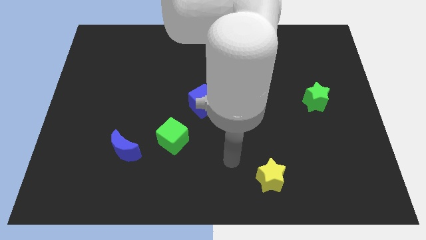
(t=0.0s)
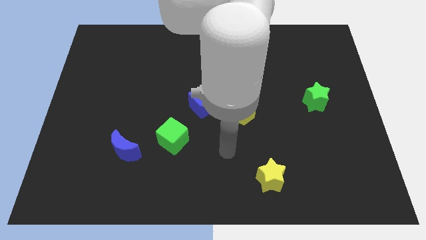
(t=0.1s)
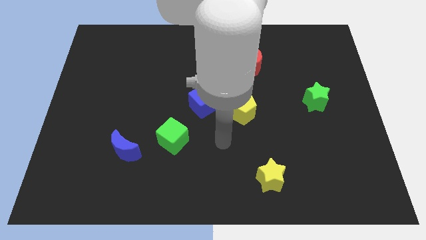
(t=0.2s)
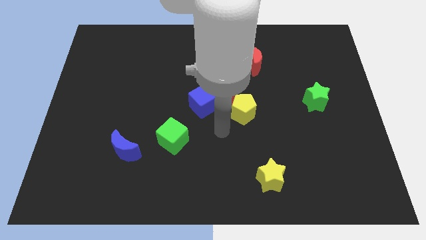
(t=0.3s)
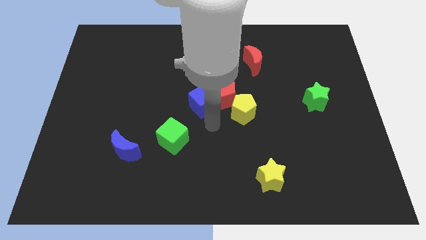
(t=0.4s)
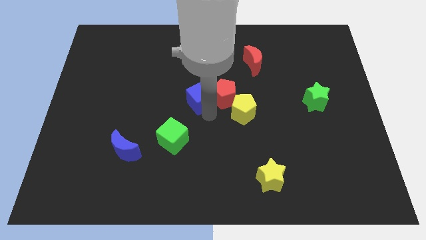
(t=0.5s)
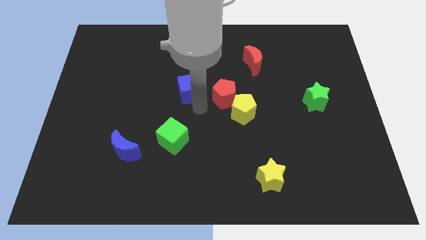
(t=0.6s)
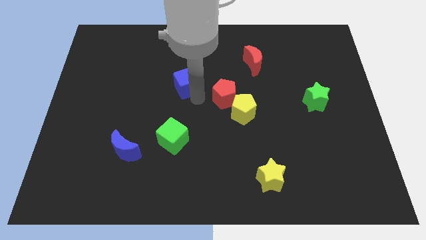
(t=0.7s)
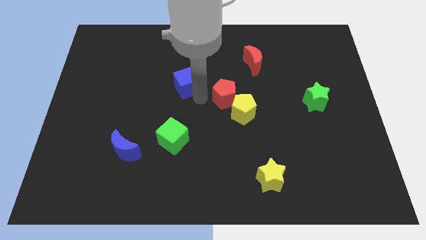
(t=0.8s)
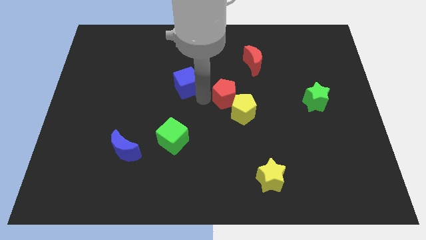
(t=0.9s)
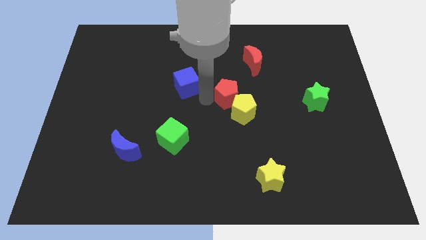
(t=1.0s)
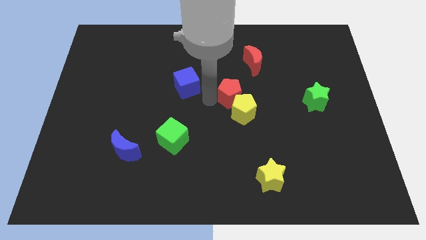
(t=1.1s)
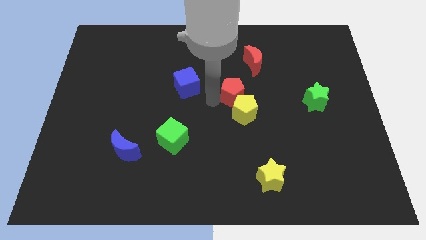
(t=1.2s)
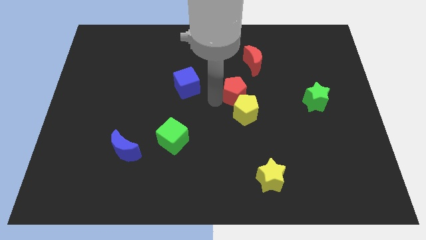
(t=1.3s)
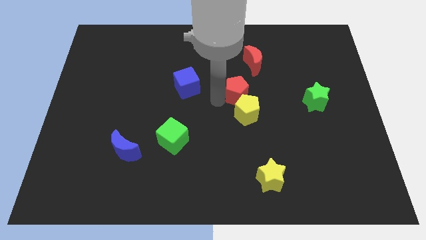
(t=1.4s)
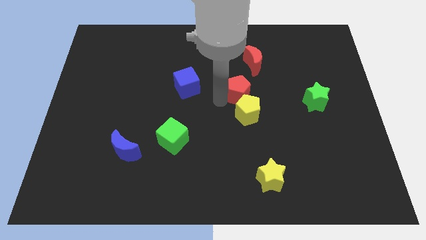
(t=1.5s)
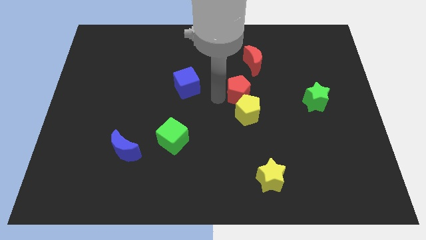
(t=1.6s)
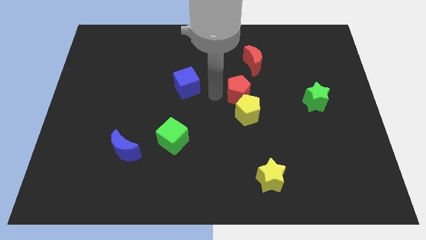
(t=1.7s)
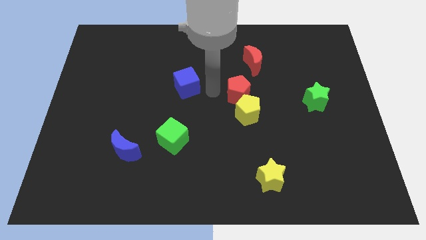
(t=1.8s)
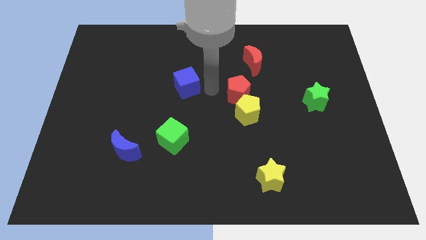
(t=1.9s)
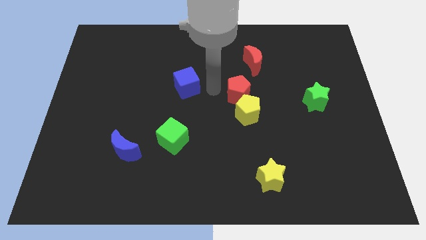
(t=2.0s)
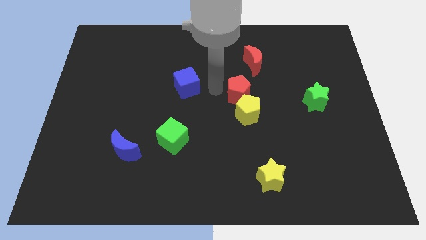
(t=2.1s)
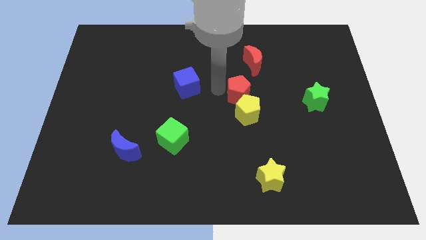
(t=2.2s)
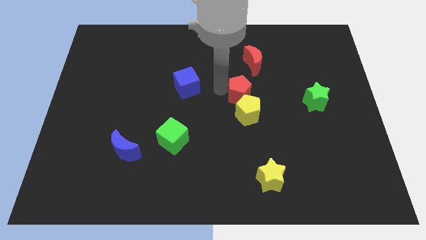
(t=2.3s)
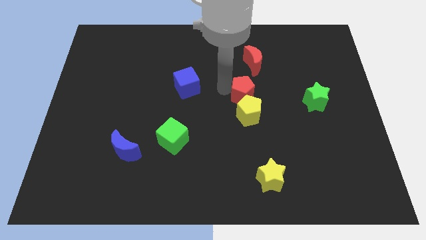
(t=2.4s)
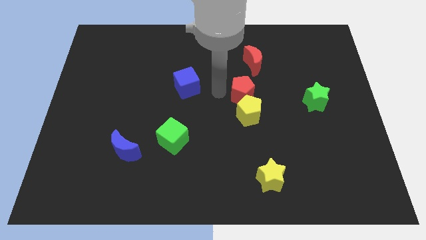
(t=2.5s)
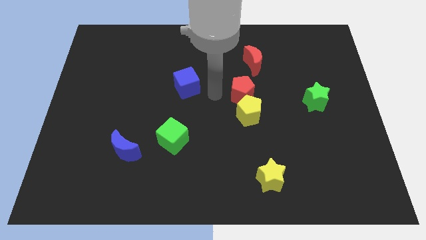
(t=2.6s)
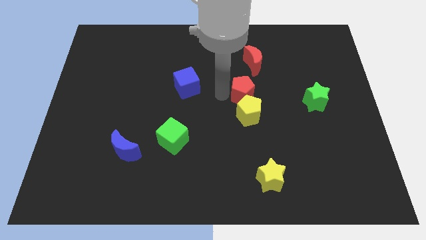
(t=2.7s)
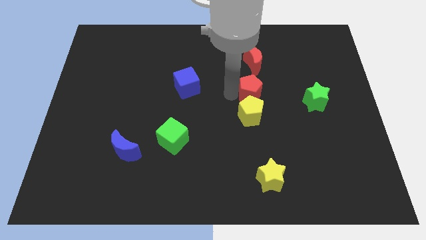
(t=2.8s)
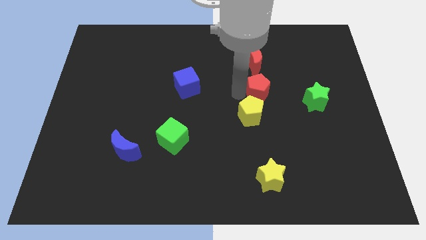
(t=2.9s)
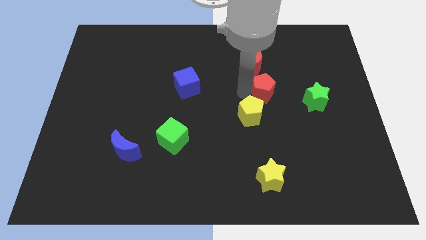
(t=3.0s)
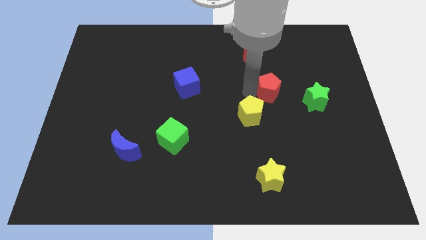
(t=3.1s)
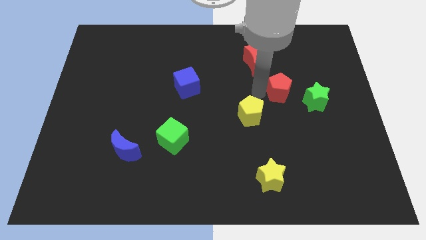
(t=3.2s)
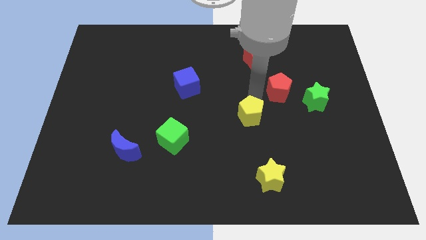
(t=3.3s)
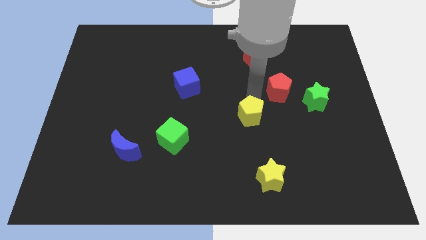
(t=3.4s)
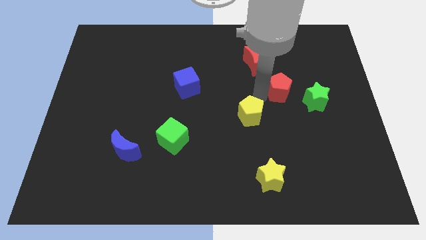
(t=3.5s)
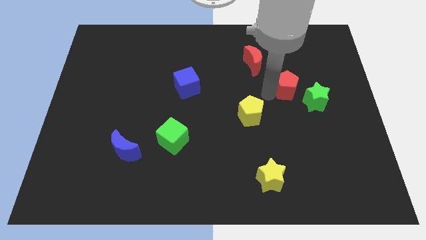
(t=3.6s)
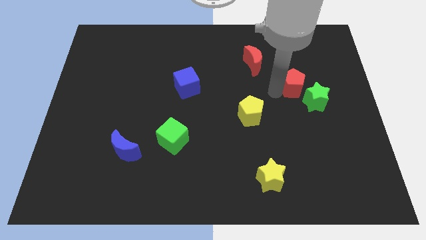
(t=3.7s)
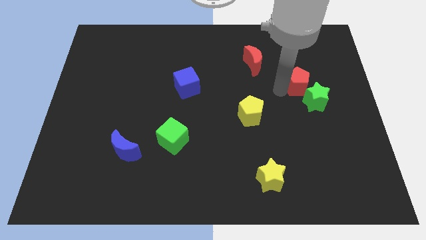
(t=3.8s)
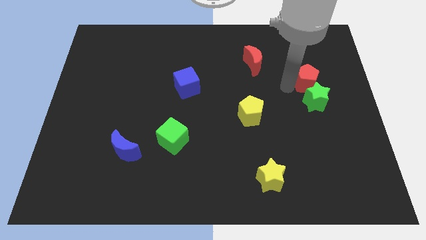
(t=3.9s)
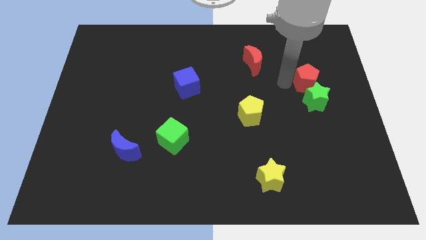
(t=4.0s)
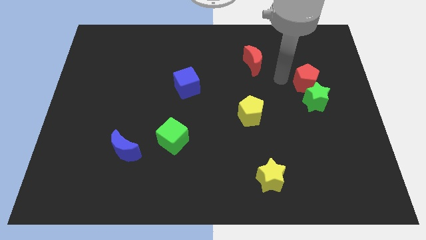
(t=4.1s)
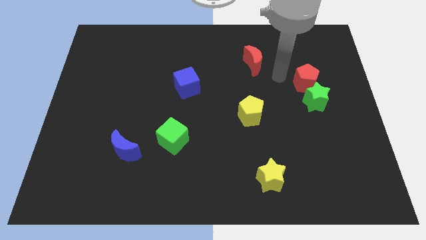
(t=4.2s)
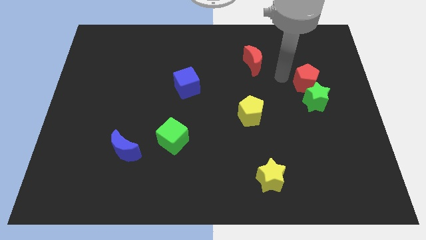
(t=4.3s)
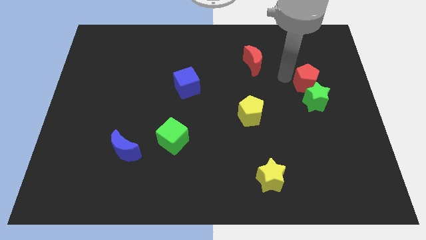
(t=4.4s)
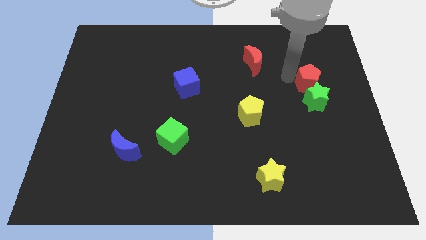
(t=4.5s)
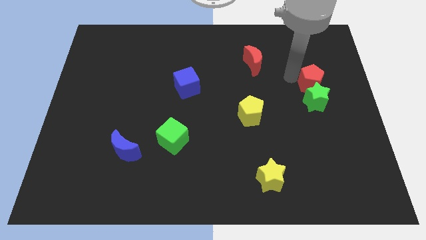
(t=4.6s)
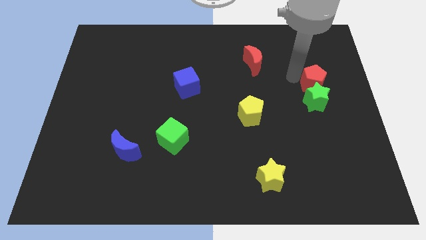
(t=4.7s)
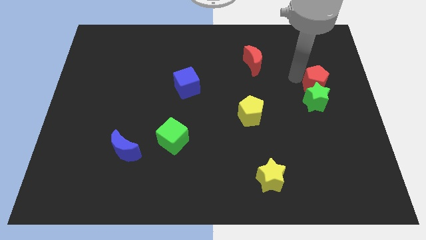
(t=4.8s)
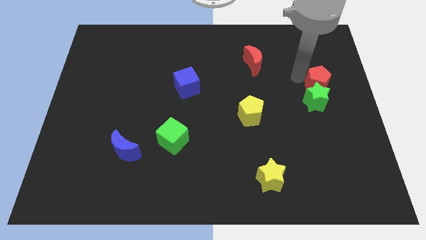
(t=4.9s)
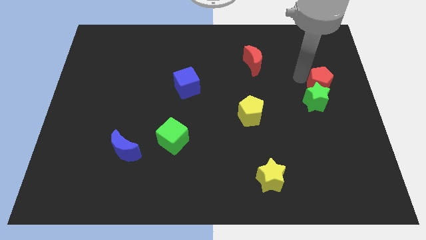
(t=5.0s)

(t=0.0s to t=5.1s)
move the red pentagon to the right side of the board

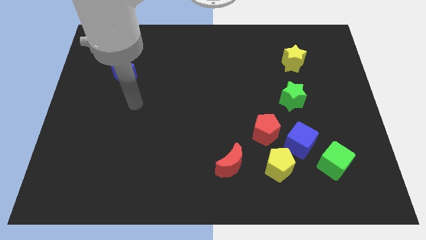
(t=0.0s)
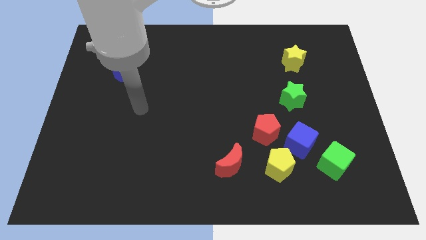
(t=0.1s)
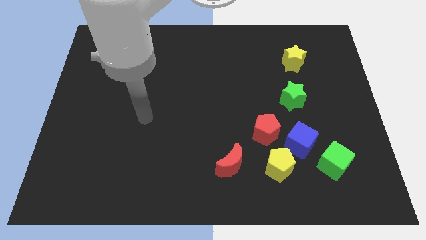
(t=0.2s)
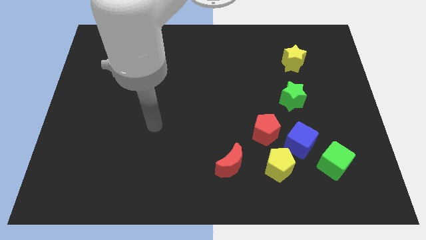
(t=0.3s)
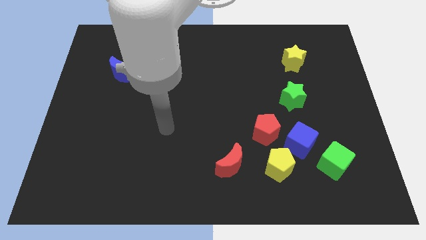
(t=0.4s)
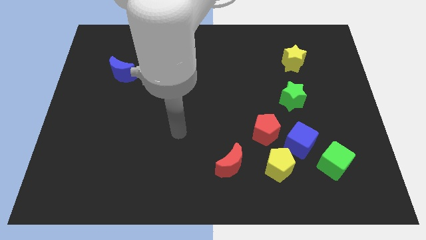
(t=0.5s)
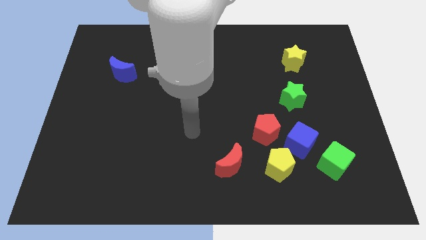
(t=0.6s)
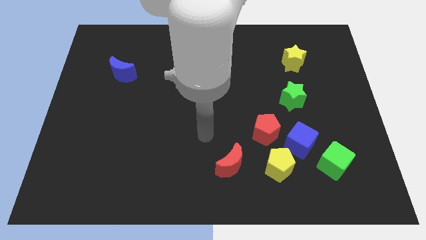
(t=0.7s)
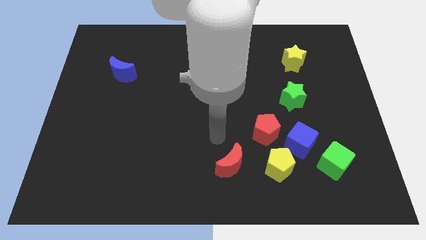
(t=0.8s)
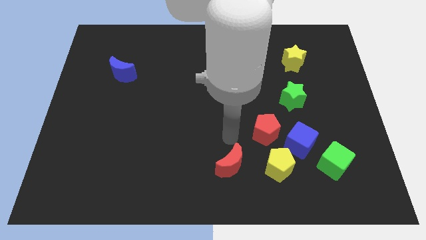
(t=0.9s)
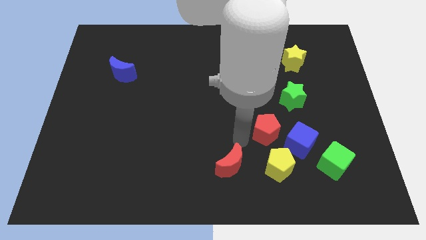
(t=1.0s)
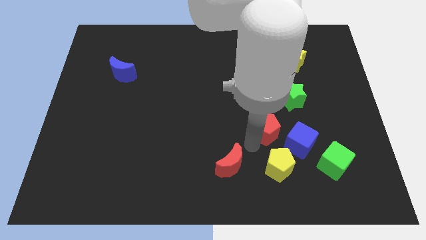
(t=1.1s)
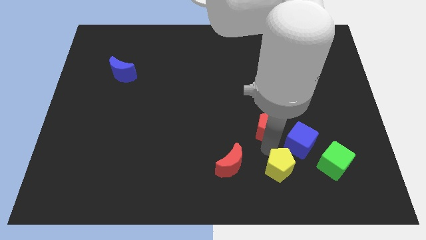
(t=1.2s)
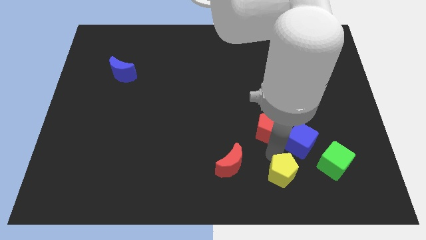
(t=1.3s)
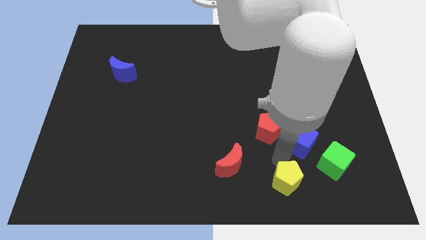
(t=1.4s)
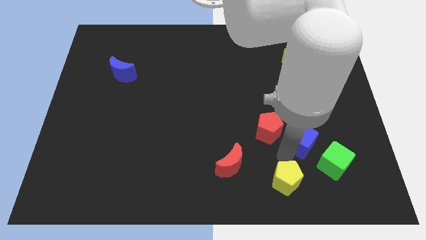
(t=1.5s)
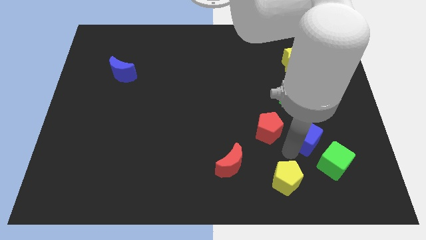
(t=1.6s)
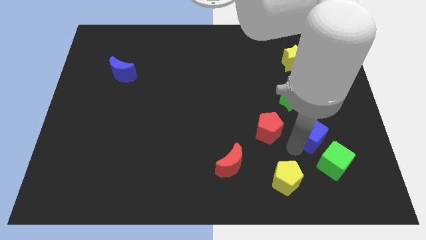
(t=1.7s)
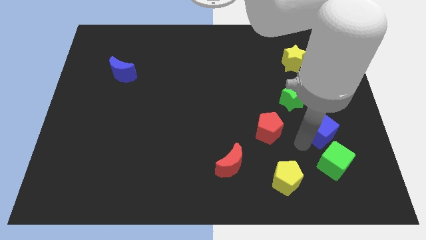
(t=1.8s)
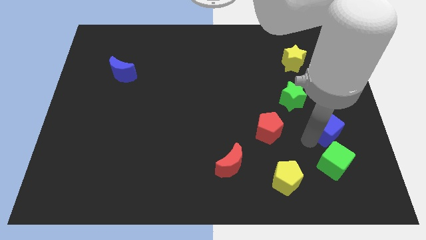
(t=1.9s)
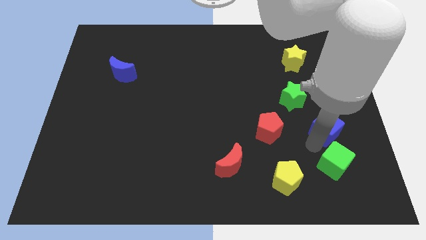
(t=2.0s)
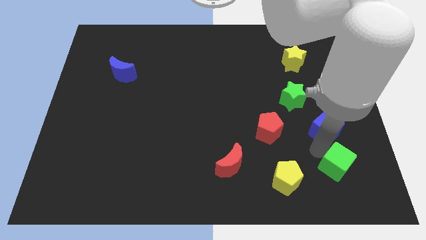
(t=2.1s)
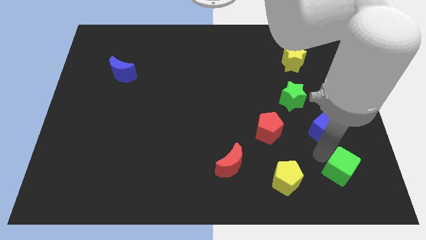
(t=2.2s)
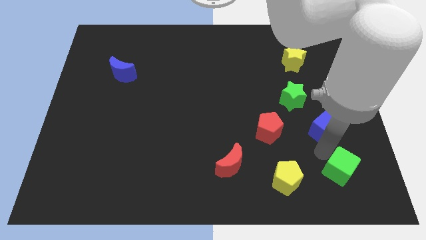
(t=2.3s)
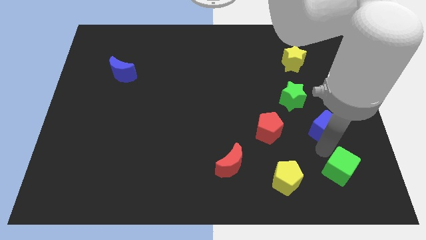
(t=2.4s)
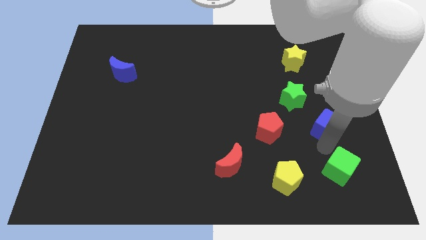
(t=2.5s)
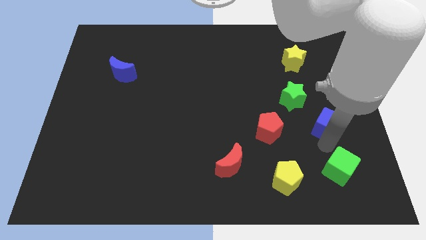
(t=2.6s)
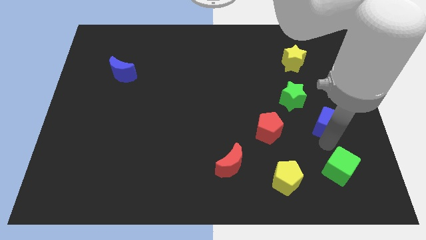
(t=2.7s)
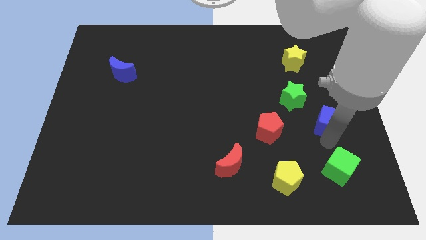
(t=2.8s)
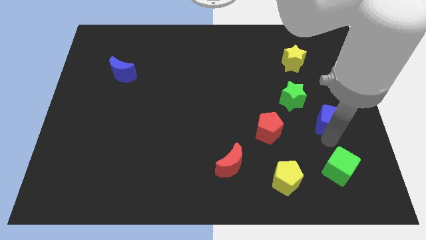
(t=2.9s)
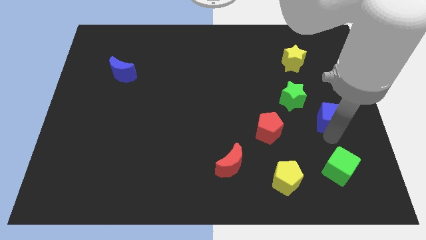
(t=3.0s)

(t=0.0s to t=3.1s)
put the blue cube to the right side
